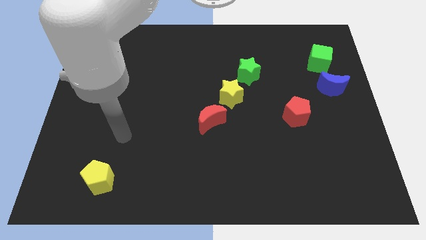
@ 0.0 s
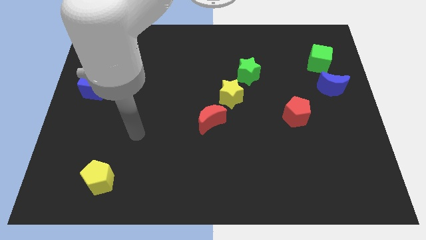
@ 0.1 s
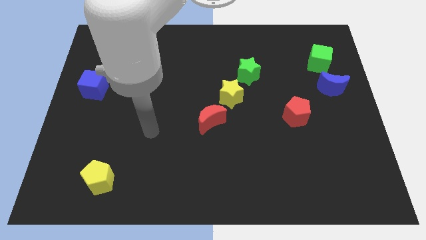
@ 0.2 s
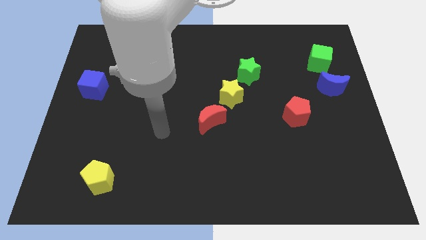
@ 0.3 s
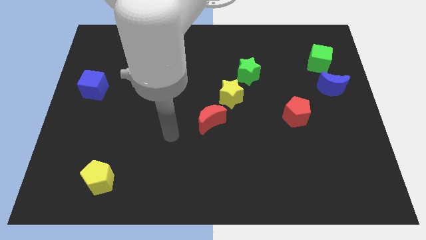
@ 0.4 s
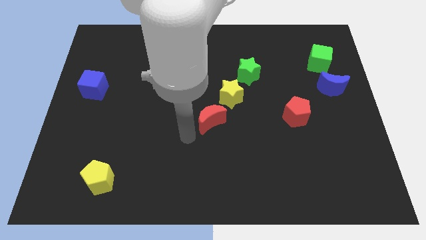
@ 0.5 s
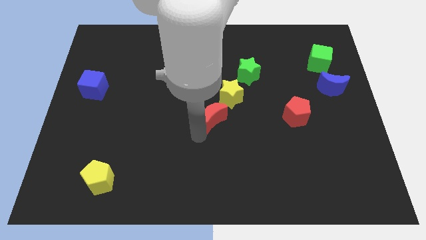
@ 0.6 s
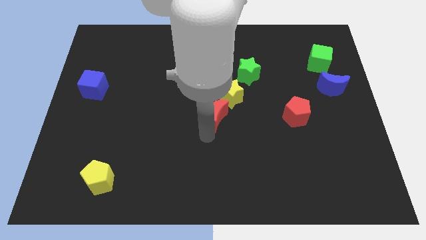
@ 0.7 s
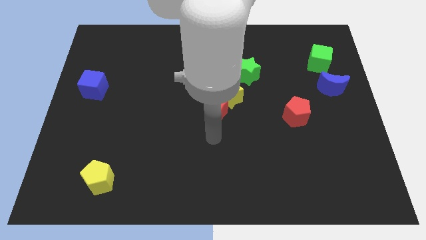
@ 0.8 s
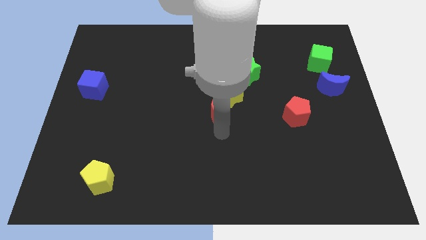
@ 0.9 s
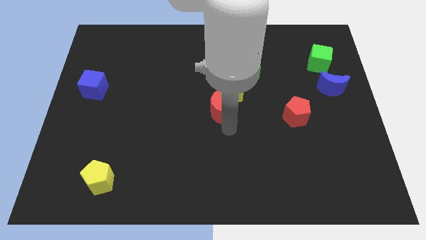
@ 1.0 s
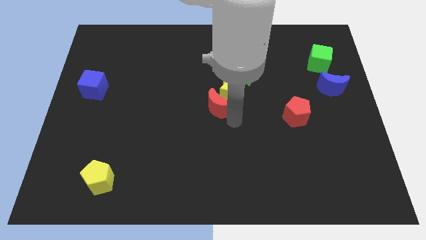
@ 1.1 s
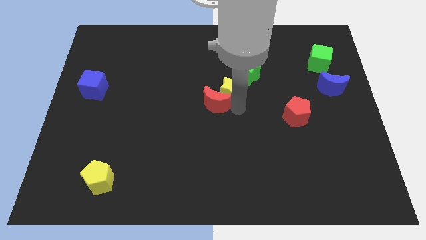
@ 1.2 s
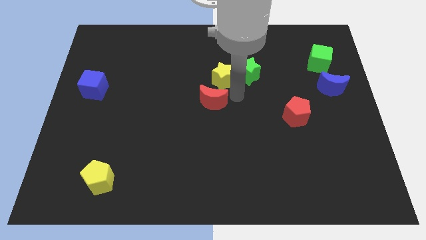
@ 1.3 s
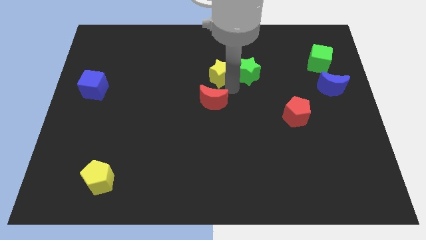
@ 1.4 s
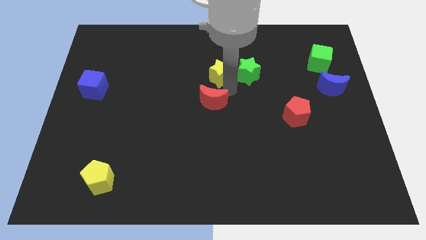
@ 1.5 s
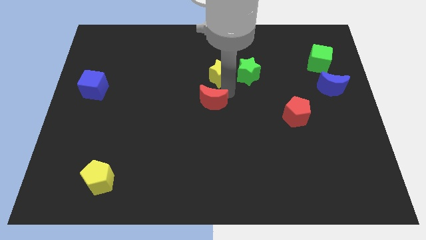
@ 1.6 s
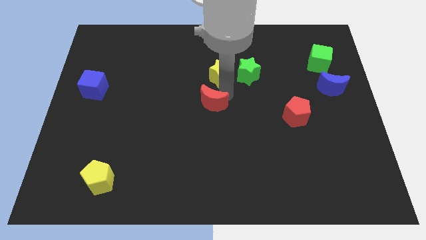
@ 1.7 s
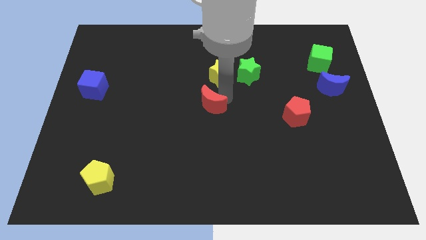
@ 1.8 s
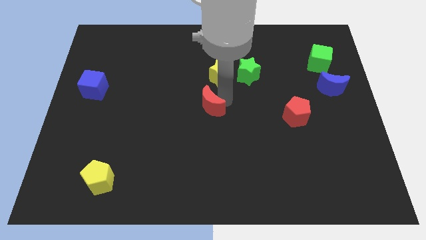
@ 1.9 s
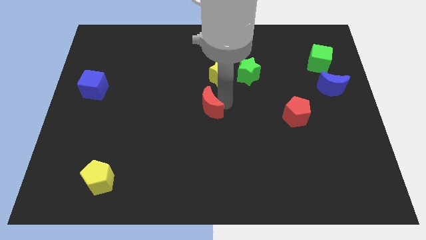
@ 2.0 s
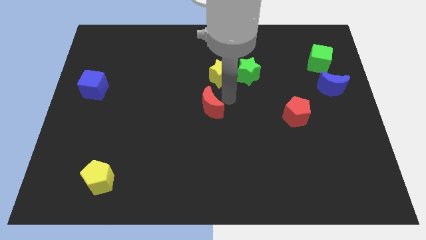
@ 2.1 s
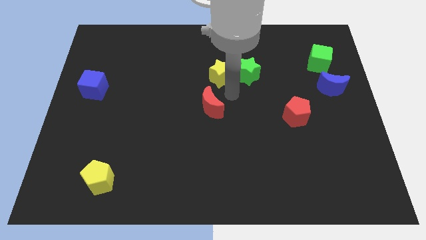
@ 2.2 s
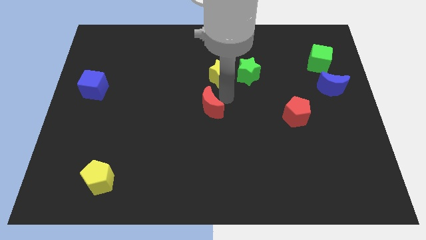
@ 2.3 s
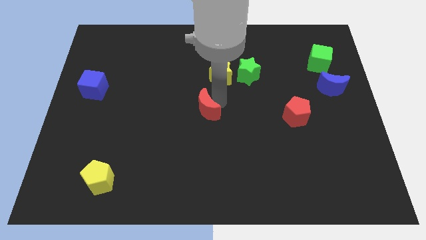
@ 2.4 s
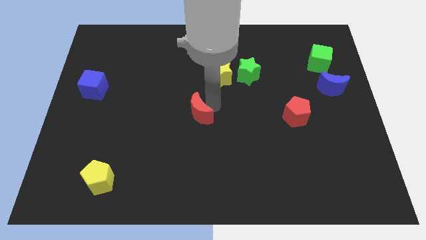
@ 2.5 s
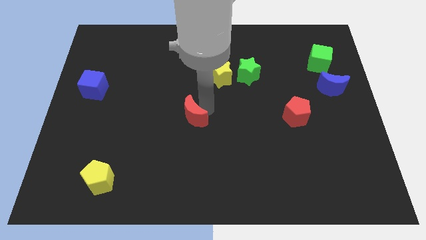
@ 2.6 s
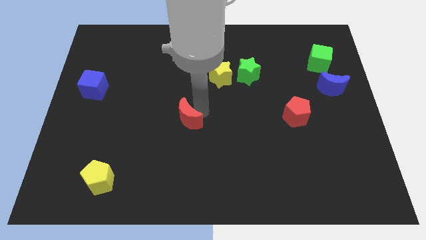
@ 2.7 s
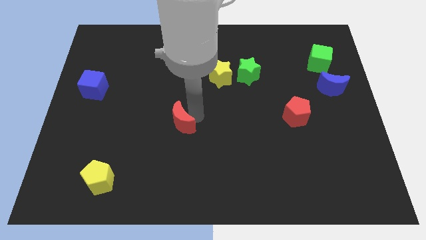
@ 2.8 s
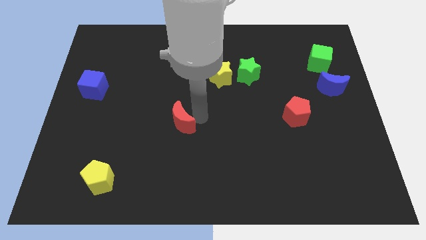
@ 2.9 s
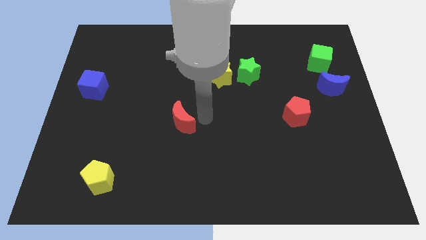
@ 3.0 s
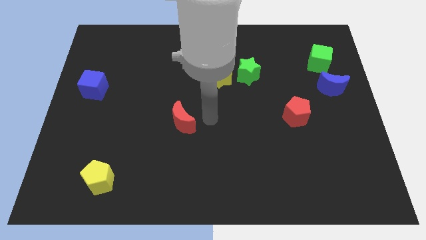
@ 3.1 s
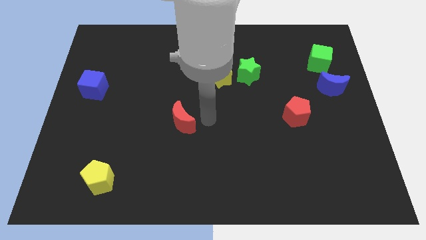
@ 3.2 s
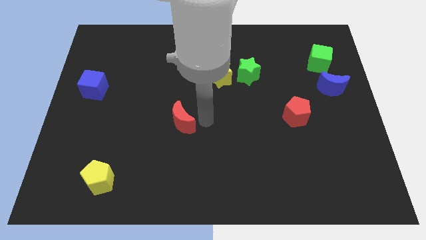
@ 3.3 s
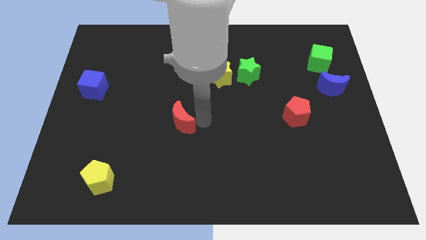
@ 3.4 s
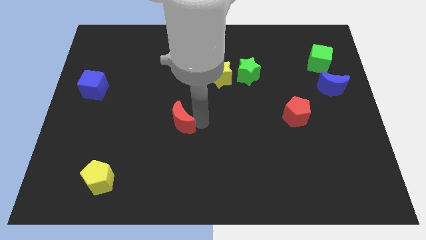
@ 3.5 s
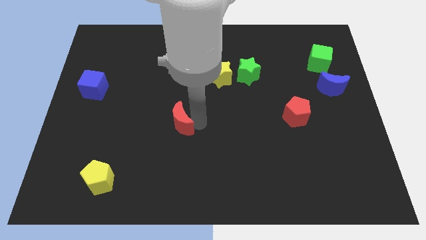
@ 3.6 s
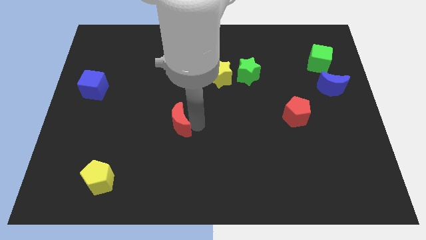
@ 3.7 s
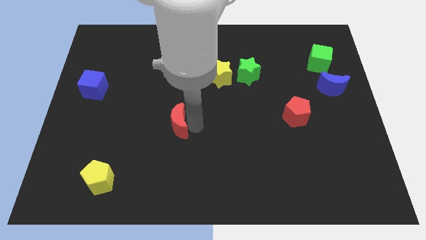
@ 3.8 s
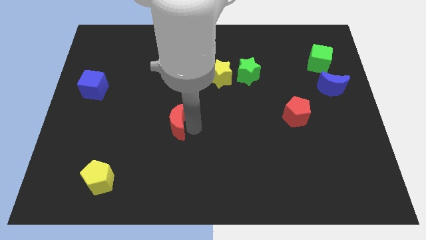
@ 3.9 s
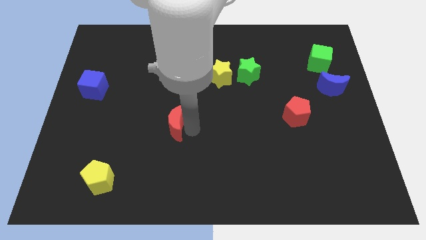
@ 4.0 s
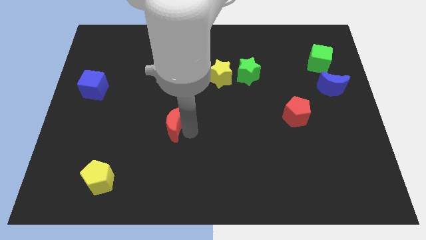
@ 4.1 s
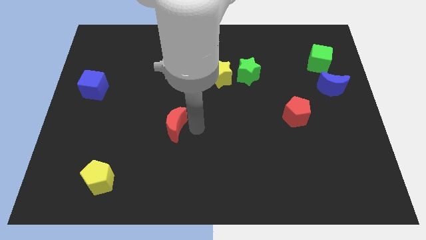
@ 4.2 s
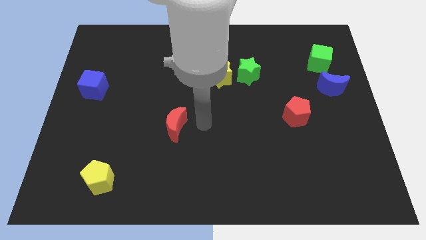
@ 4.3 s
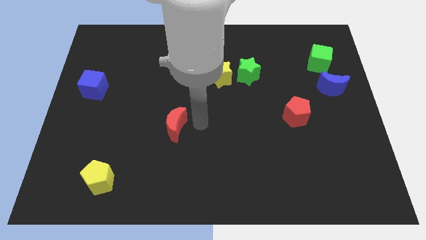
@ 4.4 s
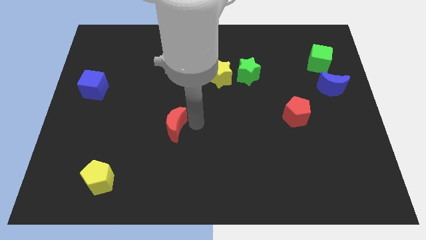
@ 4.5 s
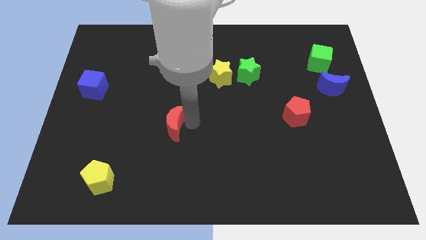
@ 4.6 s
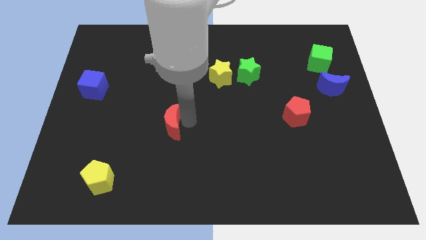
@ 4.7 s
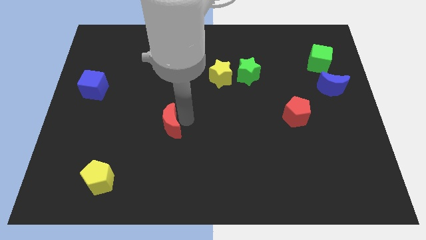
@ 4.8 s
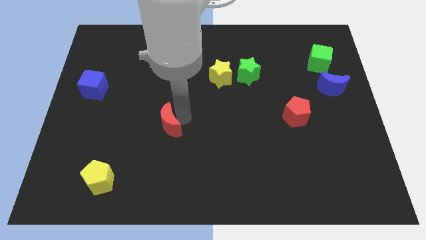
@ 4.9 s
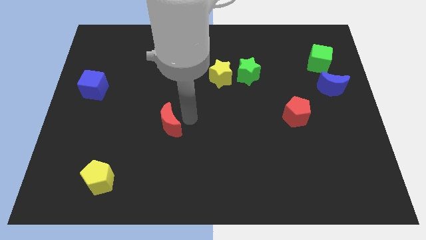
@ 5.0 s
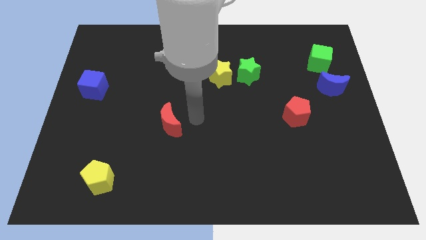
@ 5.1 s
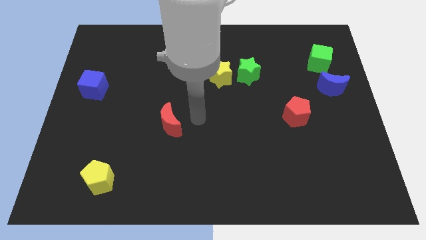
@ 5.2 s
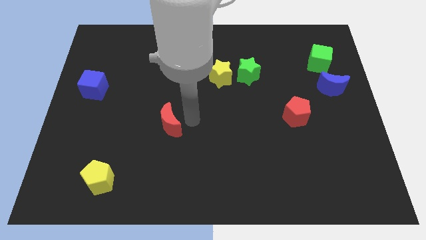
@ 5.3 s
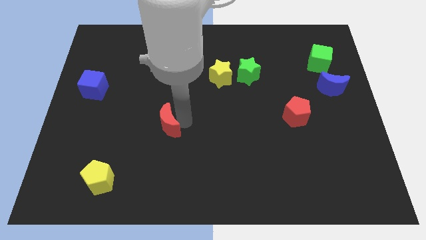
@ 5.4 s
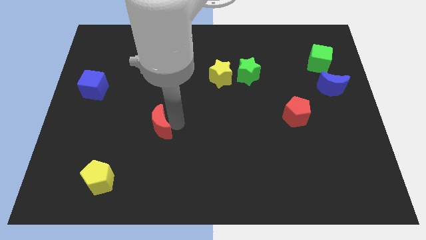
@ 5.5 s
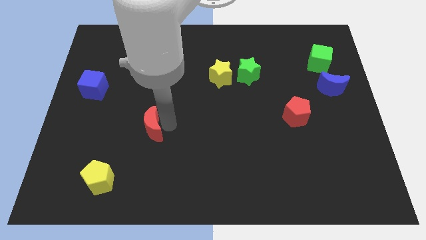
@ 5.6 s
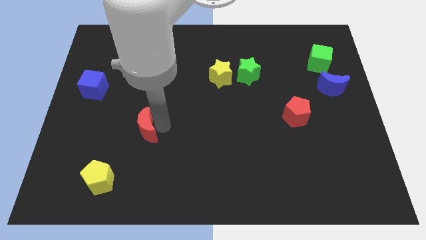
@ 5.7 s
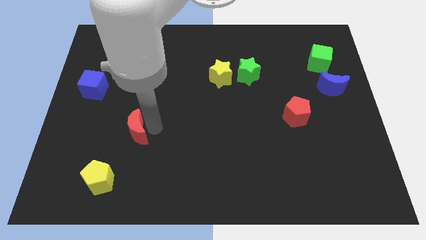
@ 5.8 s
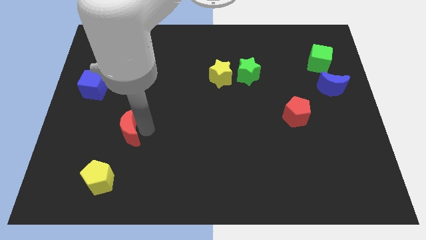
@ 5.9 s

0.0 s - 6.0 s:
slide the red moon above the yellow pentagon
